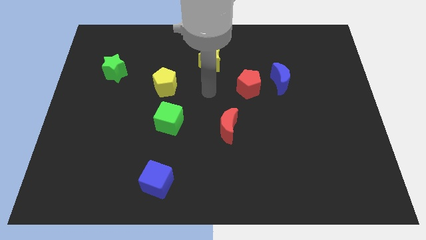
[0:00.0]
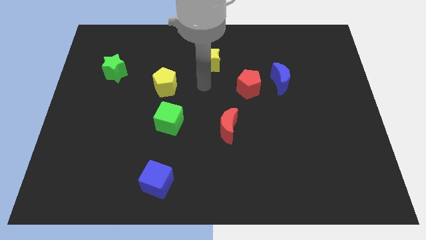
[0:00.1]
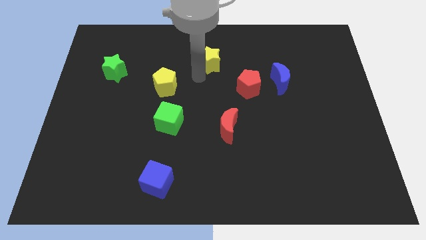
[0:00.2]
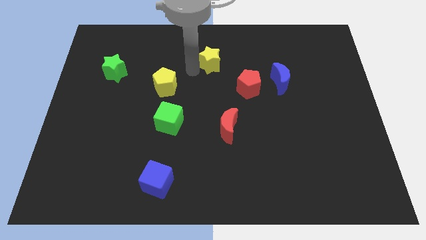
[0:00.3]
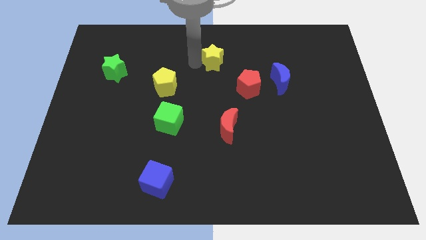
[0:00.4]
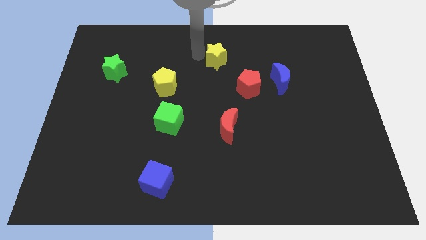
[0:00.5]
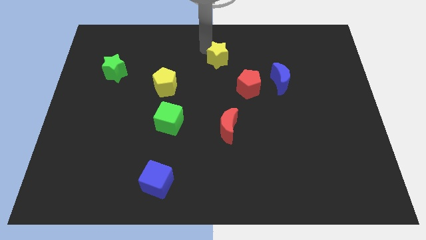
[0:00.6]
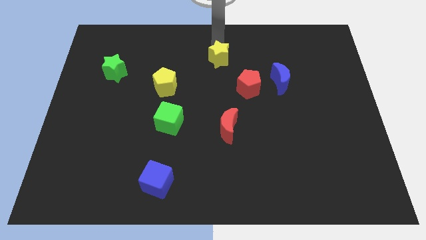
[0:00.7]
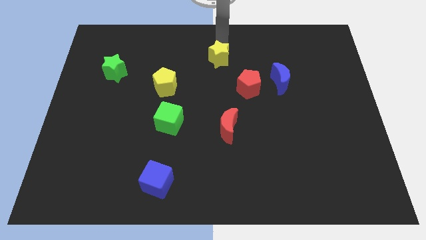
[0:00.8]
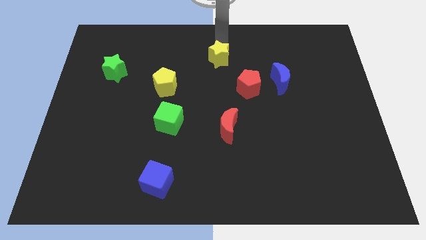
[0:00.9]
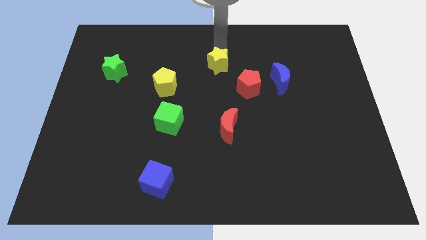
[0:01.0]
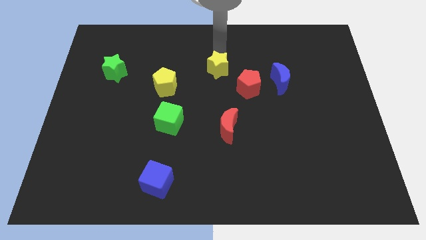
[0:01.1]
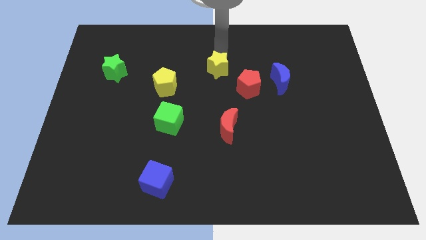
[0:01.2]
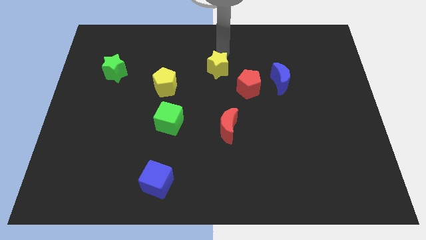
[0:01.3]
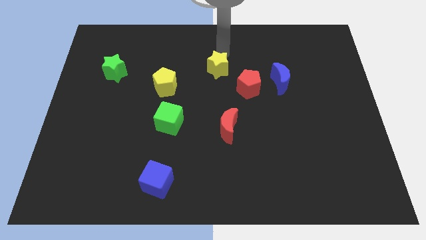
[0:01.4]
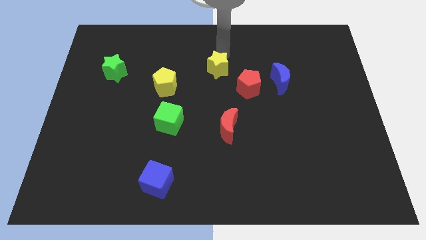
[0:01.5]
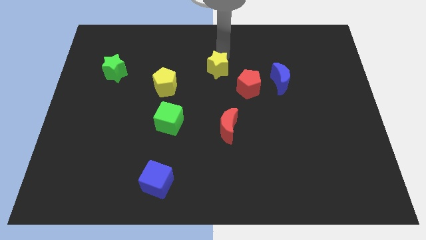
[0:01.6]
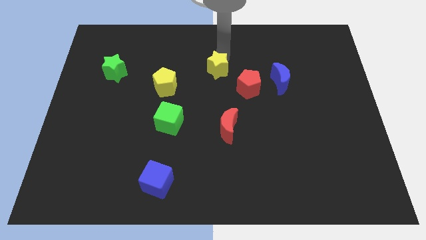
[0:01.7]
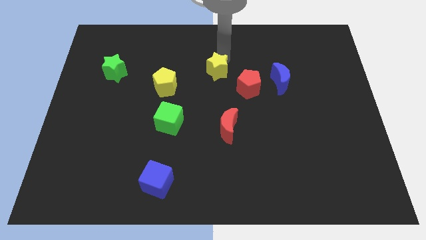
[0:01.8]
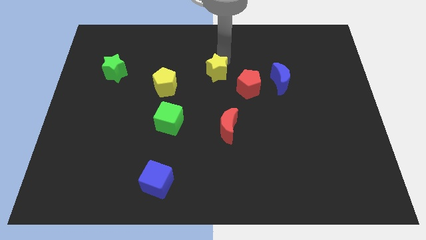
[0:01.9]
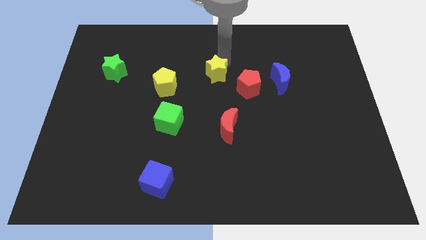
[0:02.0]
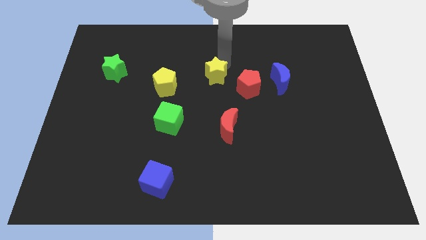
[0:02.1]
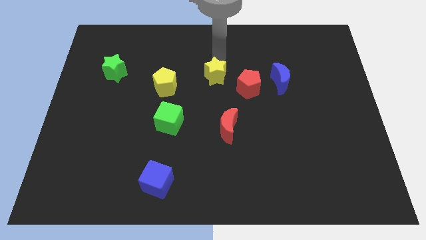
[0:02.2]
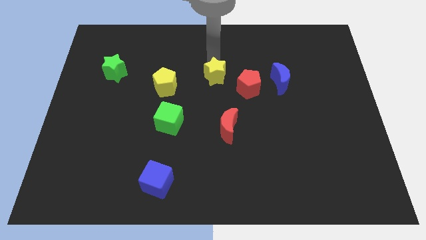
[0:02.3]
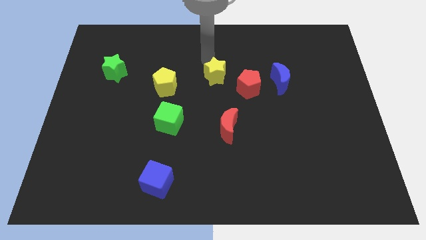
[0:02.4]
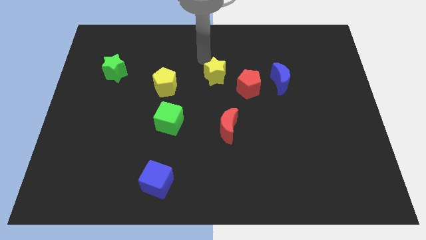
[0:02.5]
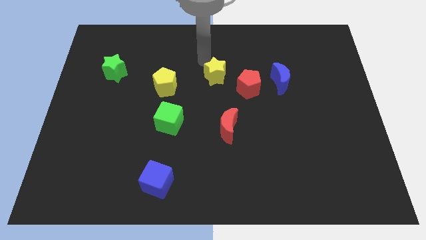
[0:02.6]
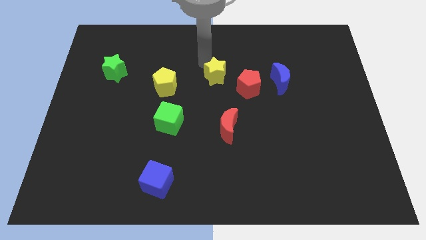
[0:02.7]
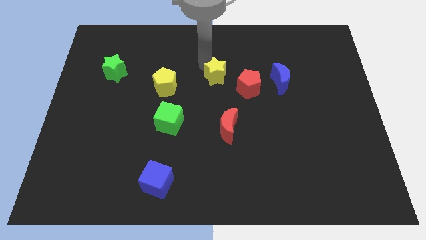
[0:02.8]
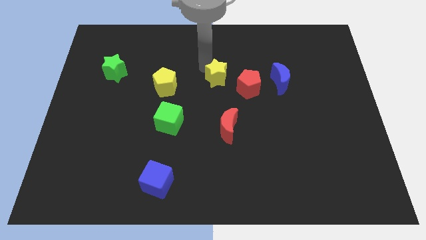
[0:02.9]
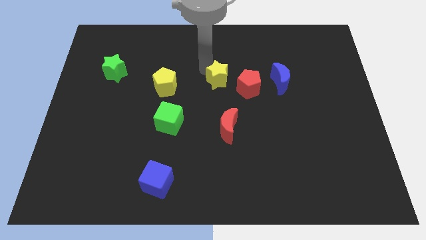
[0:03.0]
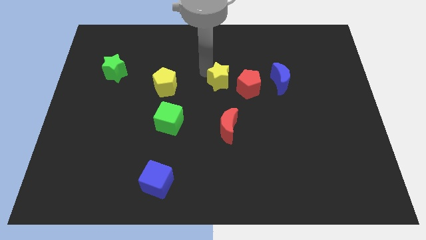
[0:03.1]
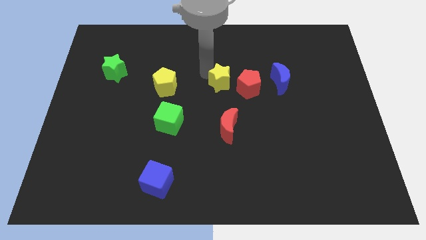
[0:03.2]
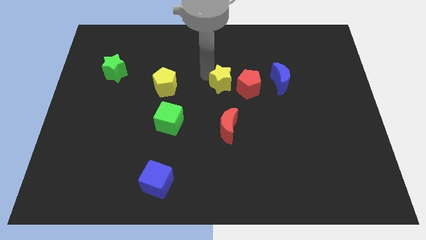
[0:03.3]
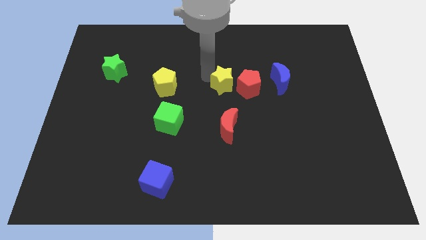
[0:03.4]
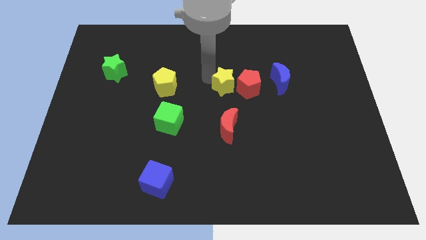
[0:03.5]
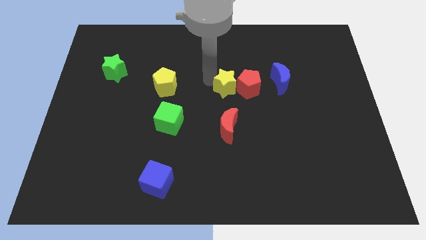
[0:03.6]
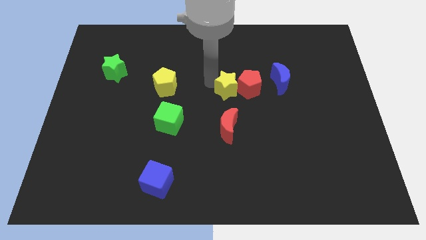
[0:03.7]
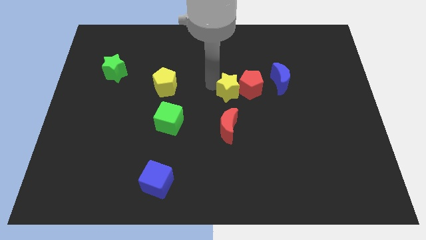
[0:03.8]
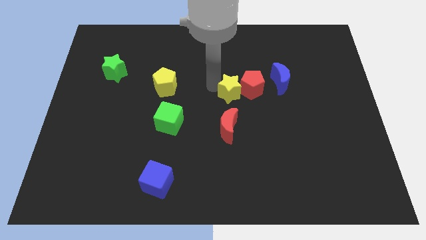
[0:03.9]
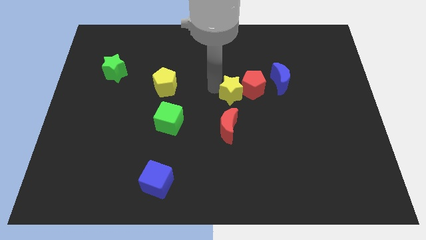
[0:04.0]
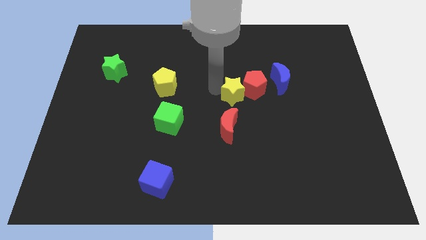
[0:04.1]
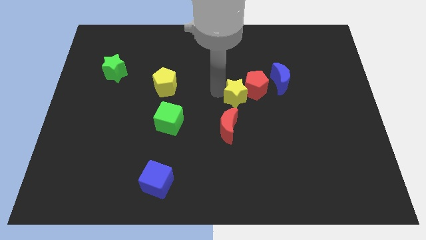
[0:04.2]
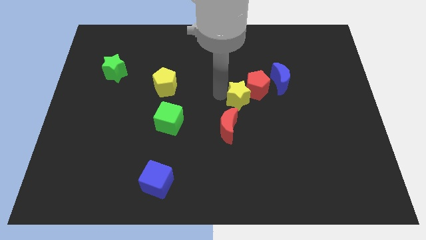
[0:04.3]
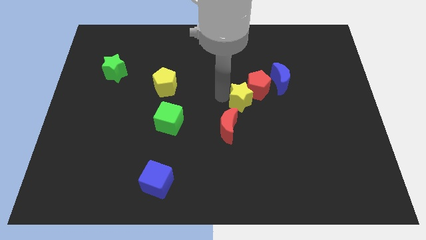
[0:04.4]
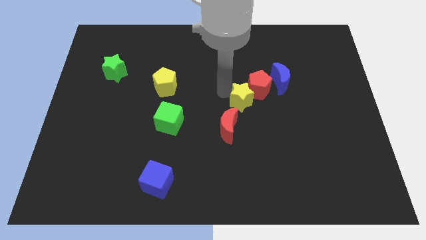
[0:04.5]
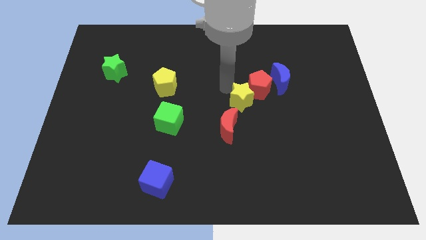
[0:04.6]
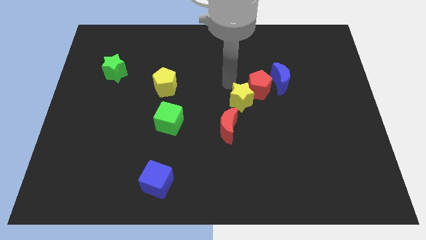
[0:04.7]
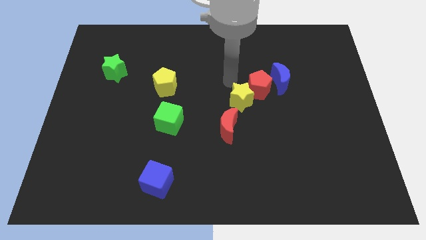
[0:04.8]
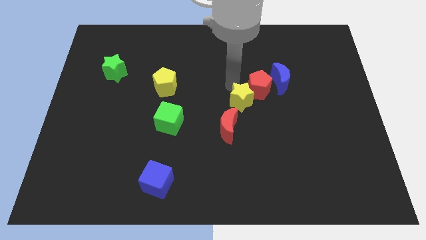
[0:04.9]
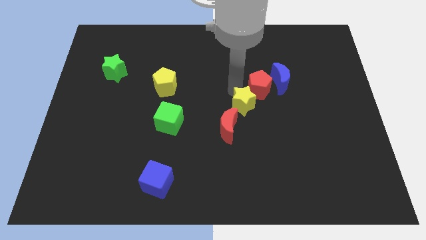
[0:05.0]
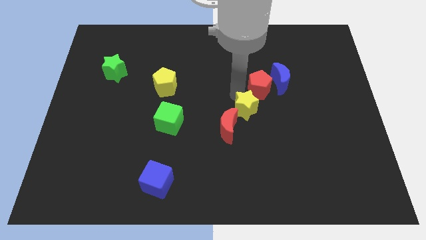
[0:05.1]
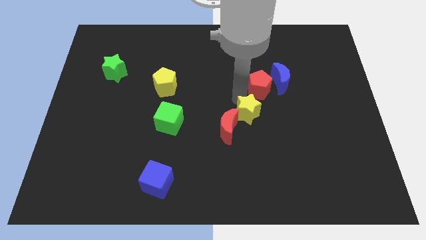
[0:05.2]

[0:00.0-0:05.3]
push the yellow star right of the red moon

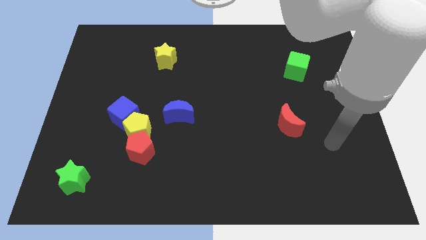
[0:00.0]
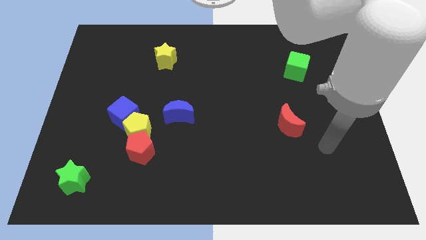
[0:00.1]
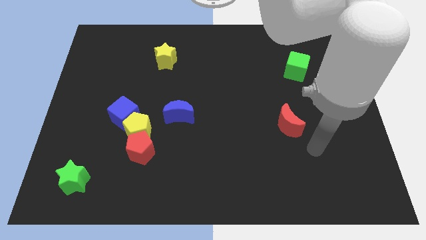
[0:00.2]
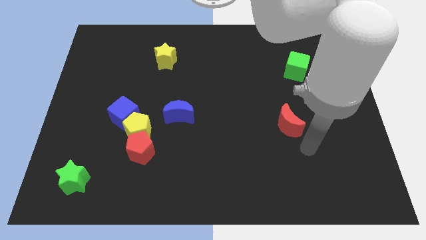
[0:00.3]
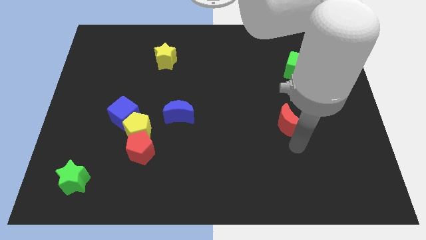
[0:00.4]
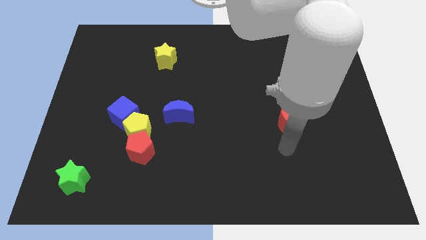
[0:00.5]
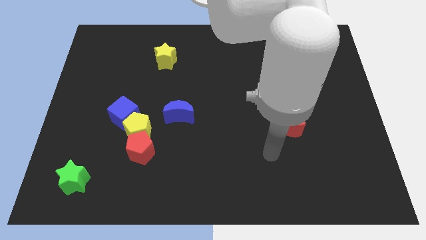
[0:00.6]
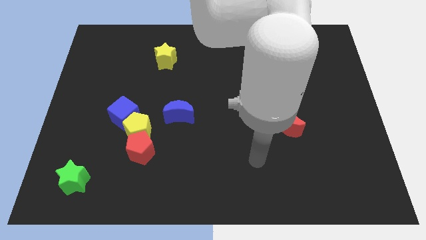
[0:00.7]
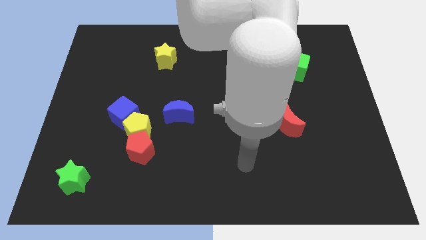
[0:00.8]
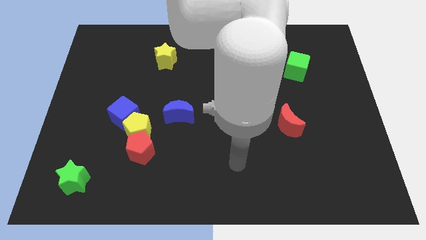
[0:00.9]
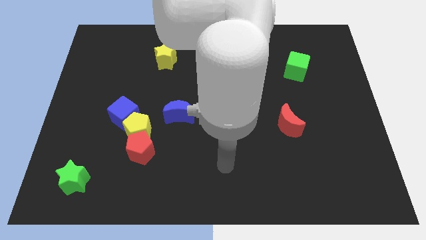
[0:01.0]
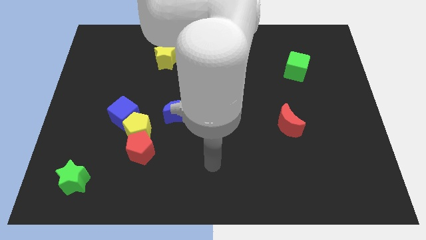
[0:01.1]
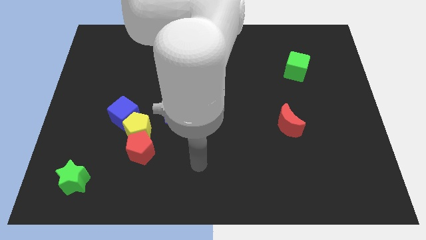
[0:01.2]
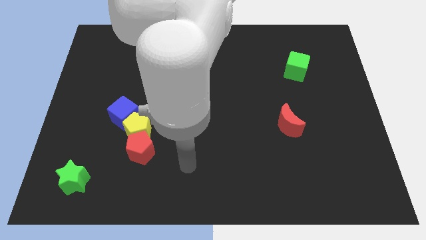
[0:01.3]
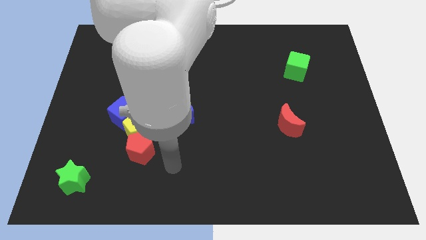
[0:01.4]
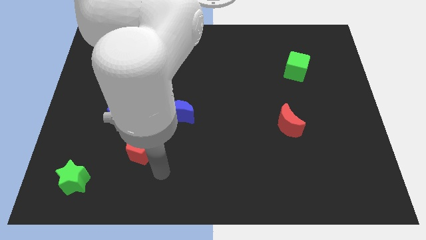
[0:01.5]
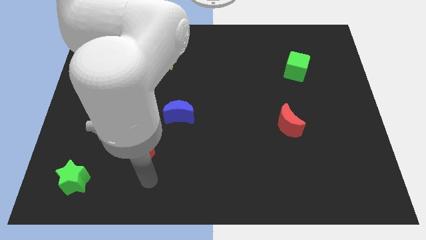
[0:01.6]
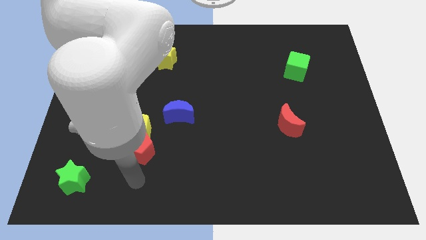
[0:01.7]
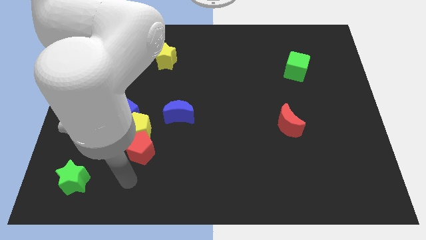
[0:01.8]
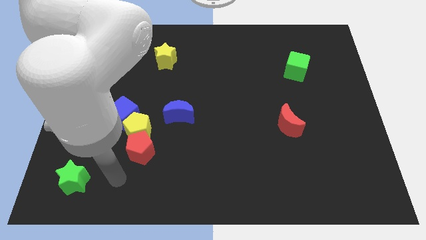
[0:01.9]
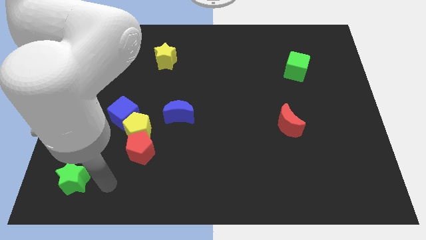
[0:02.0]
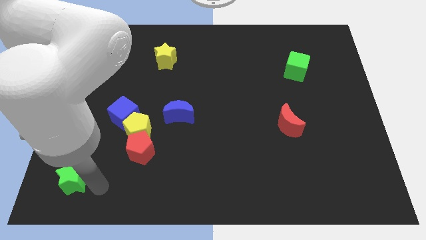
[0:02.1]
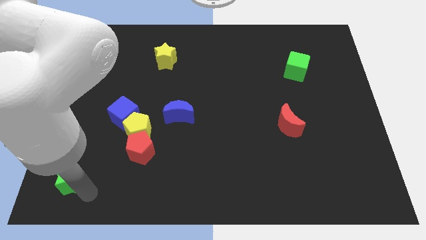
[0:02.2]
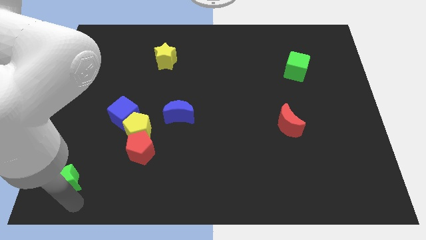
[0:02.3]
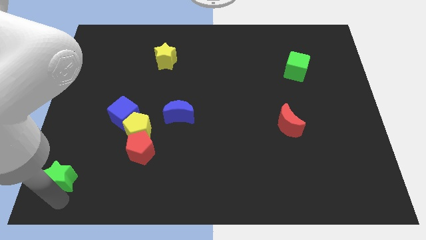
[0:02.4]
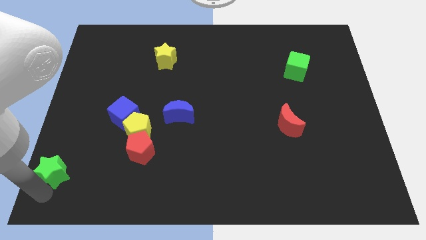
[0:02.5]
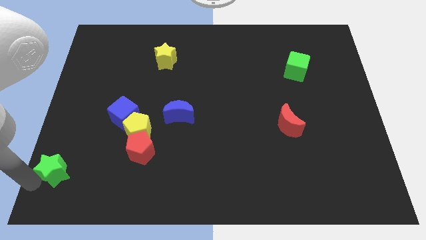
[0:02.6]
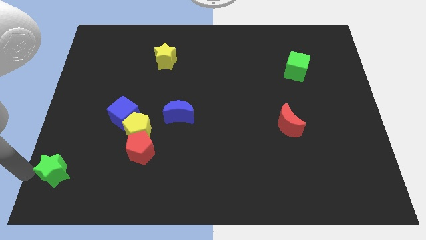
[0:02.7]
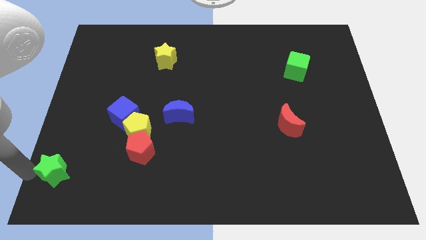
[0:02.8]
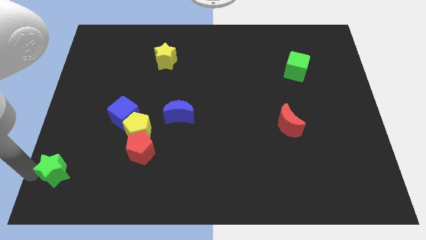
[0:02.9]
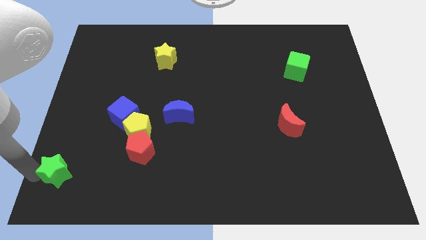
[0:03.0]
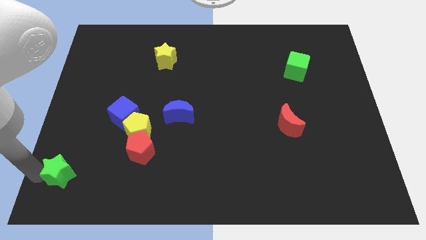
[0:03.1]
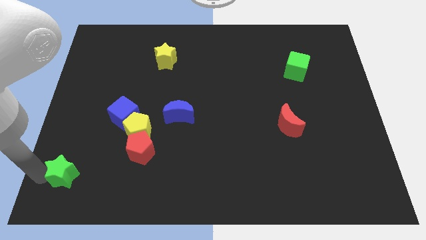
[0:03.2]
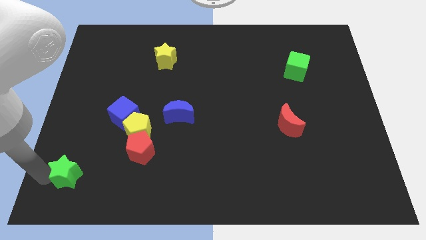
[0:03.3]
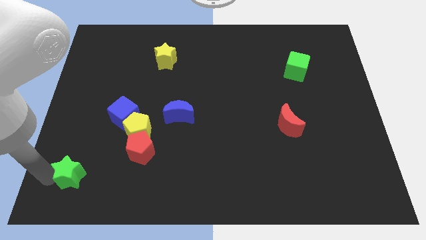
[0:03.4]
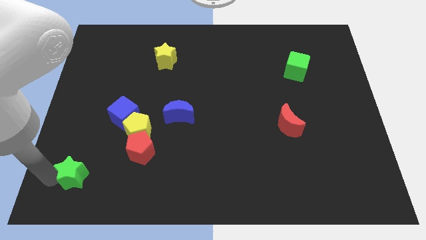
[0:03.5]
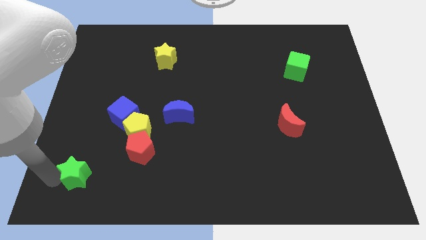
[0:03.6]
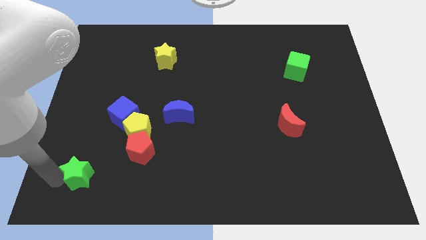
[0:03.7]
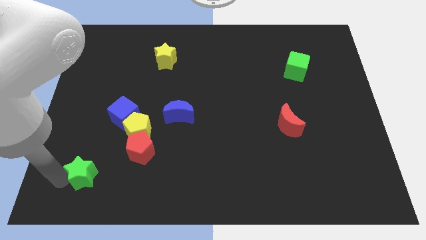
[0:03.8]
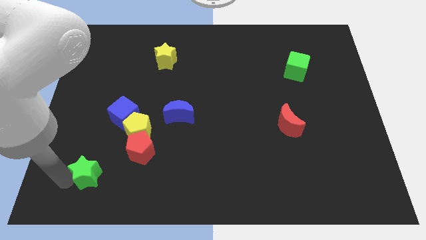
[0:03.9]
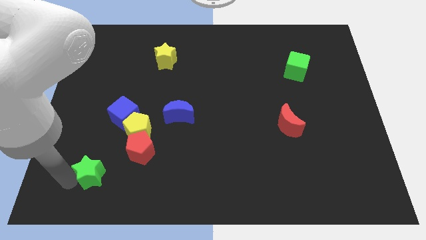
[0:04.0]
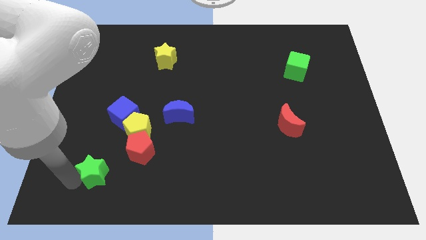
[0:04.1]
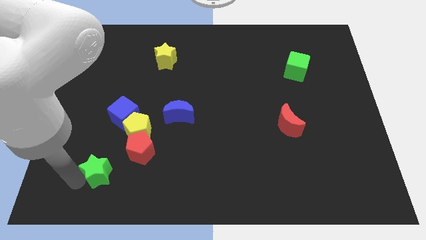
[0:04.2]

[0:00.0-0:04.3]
put the green star to the bottom of the blue cube
